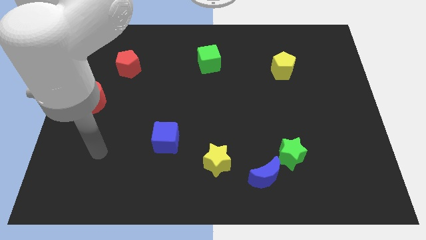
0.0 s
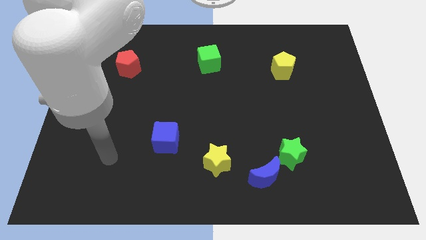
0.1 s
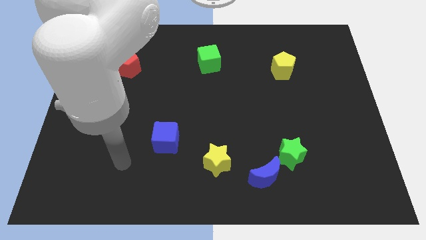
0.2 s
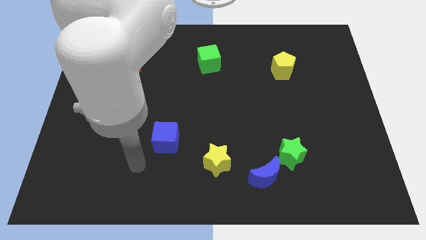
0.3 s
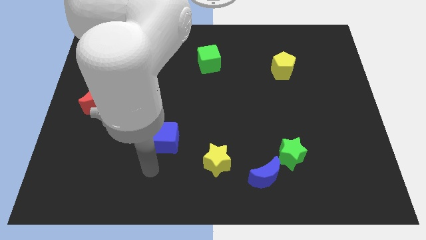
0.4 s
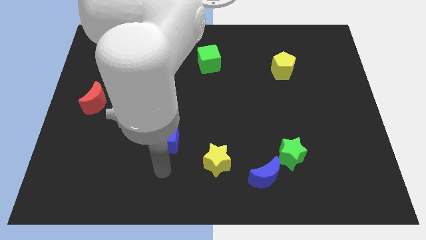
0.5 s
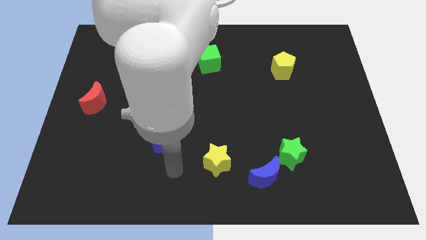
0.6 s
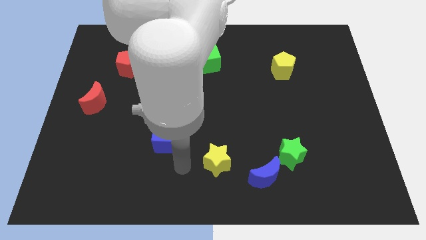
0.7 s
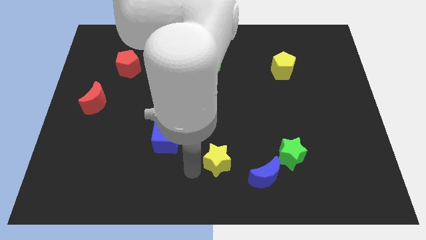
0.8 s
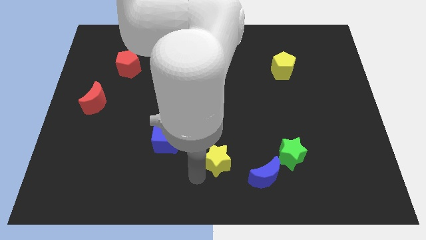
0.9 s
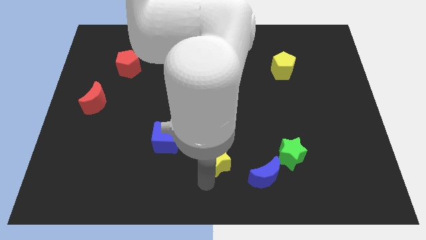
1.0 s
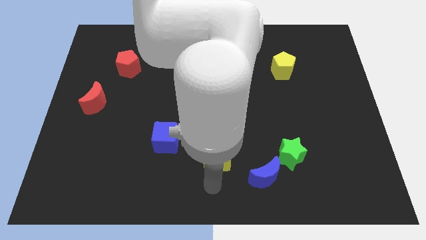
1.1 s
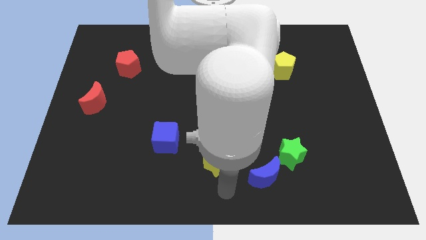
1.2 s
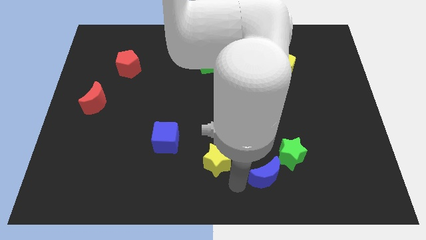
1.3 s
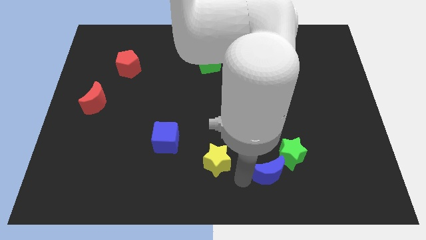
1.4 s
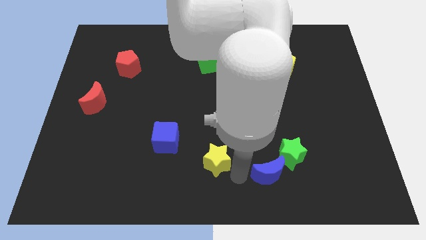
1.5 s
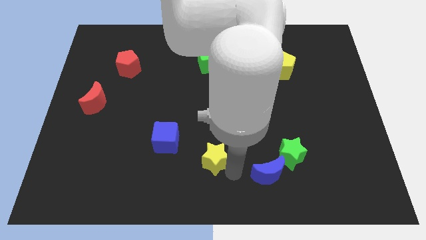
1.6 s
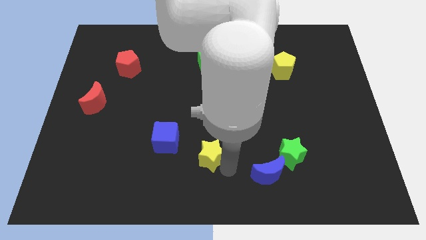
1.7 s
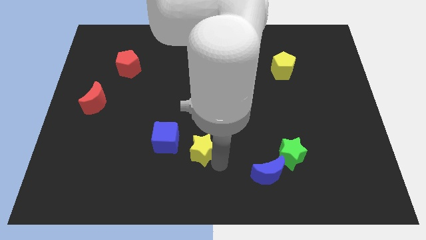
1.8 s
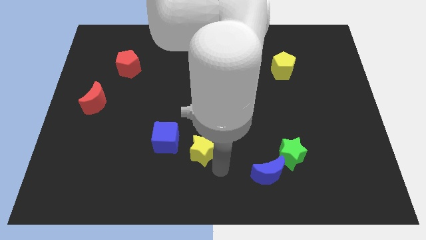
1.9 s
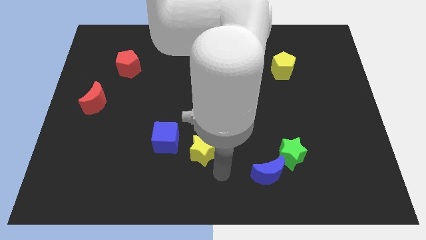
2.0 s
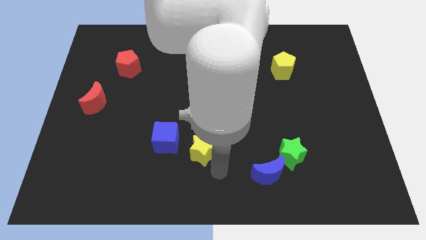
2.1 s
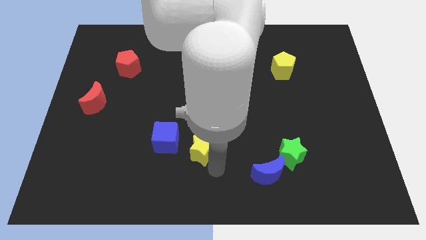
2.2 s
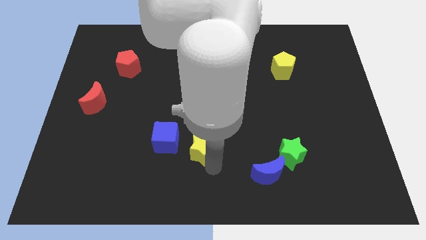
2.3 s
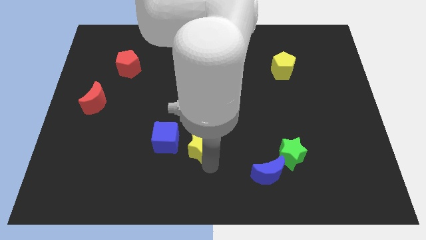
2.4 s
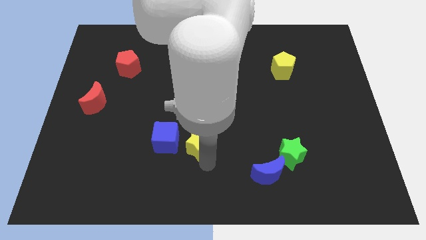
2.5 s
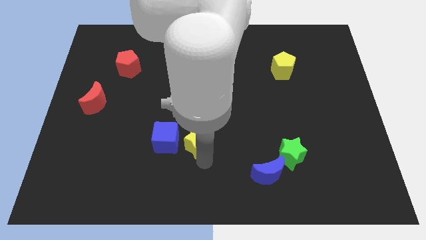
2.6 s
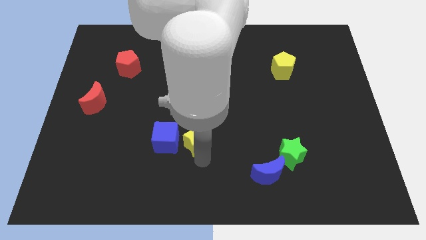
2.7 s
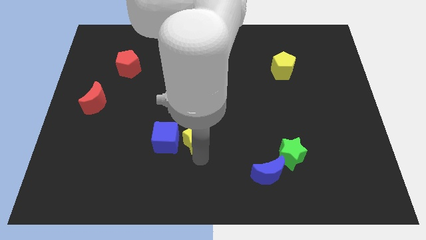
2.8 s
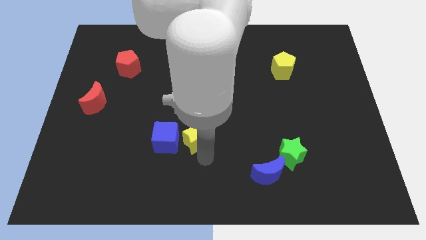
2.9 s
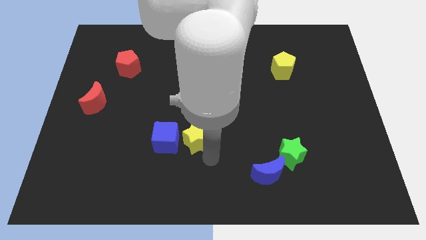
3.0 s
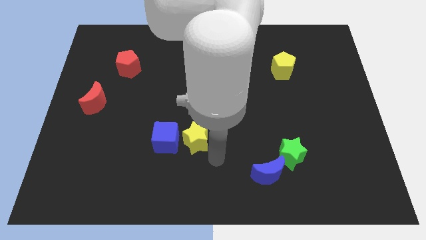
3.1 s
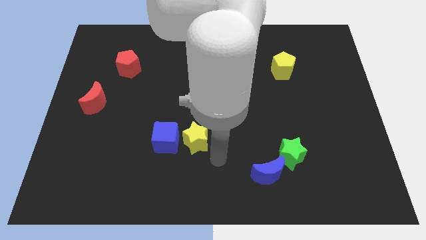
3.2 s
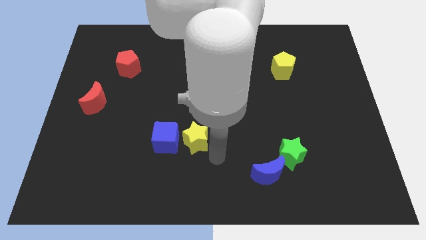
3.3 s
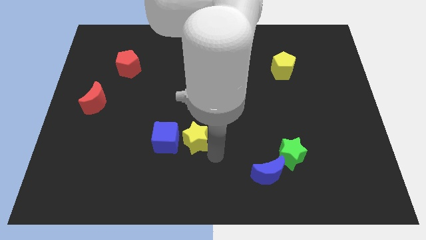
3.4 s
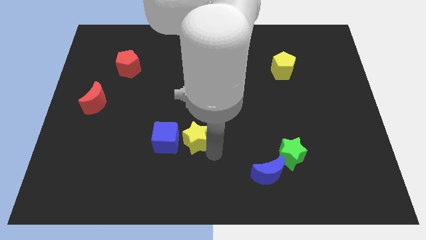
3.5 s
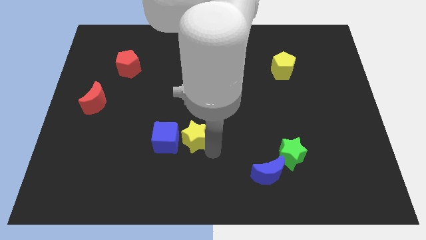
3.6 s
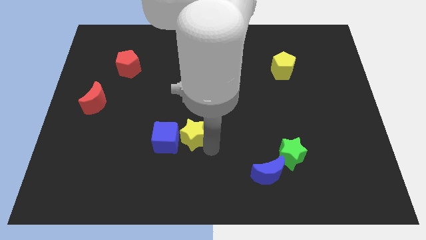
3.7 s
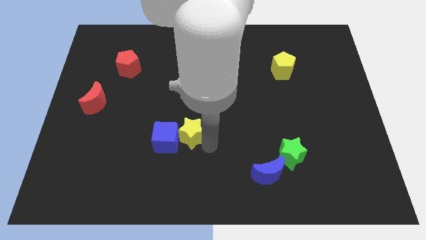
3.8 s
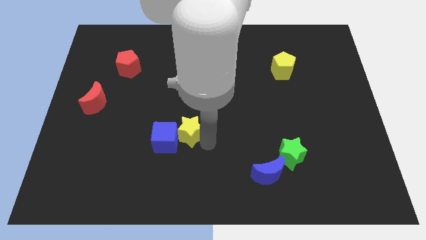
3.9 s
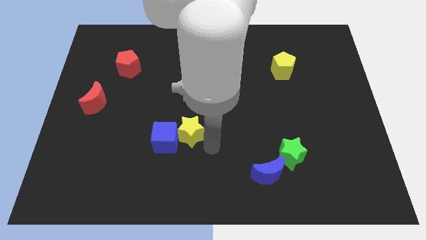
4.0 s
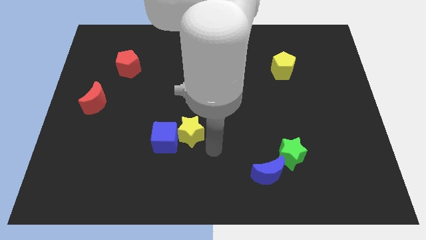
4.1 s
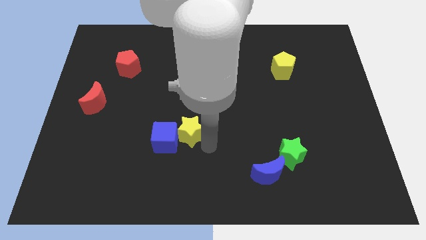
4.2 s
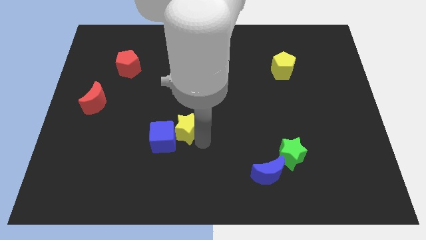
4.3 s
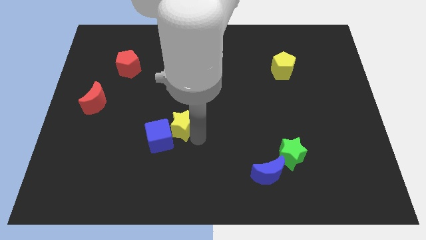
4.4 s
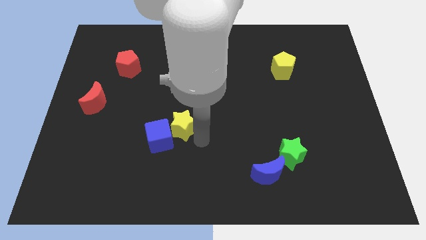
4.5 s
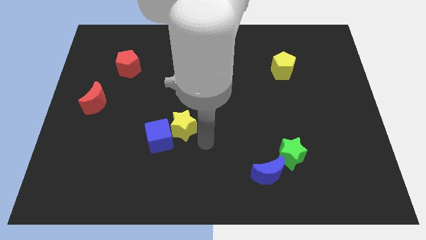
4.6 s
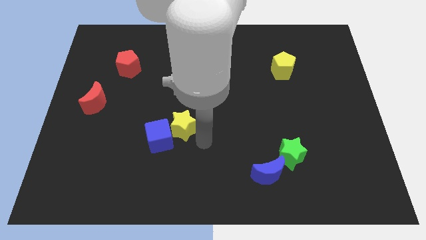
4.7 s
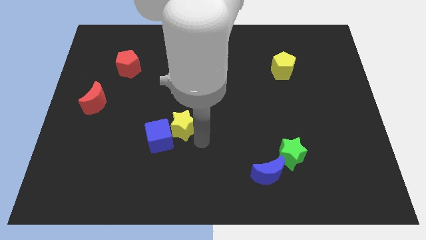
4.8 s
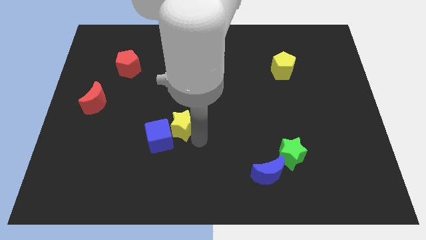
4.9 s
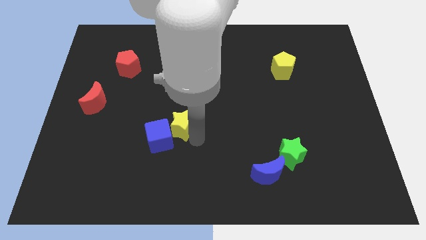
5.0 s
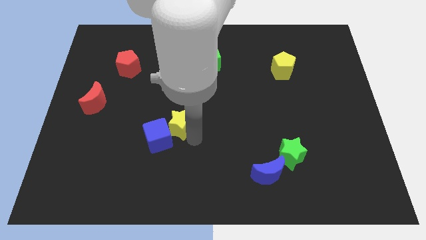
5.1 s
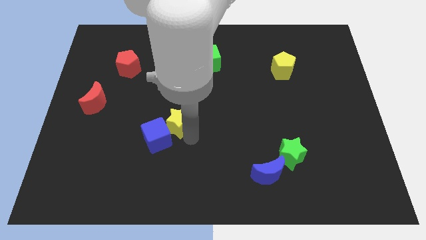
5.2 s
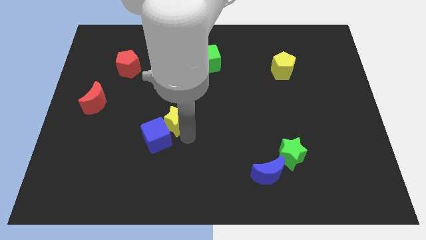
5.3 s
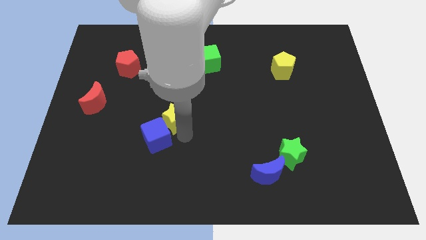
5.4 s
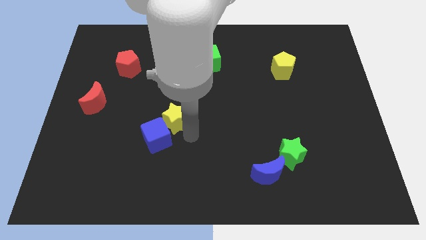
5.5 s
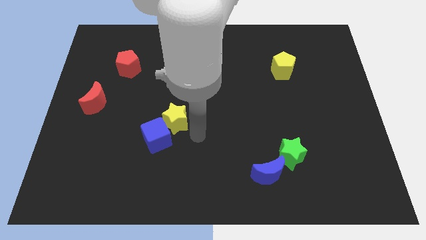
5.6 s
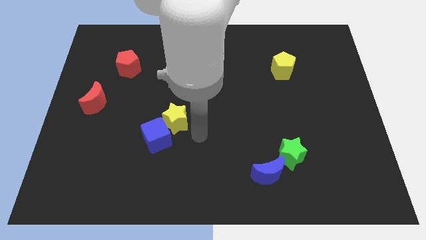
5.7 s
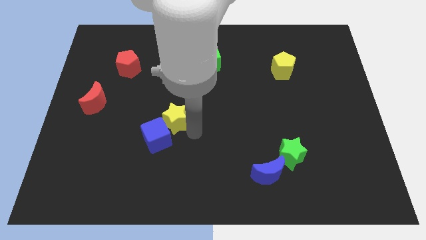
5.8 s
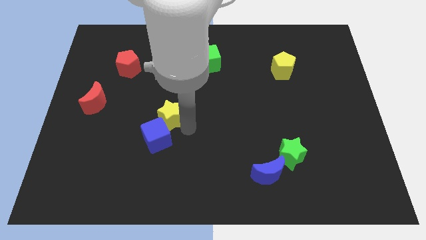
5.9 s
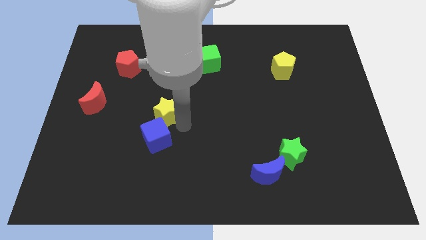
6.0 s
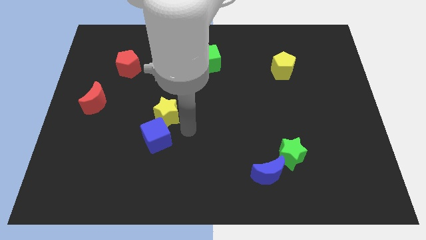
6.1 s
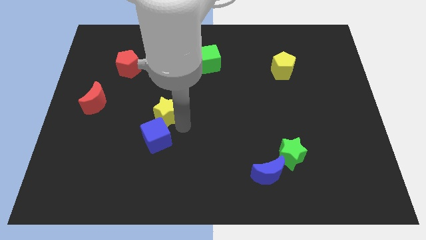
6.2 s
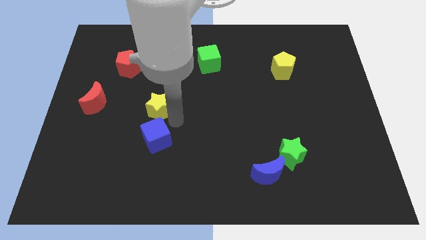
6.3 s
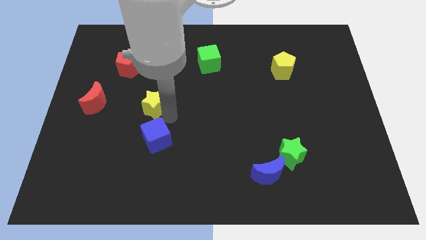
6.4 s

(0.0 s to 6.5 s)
move the yellow star up and to the left

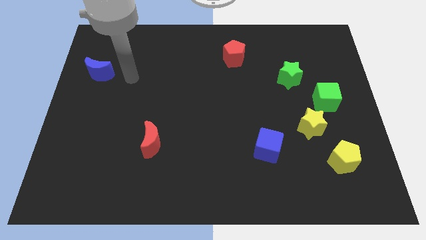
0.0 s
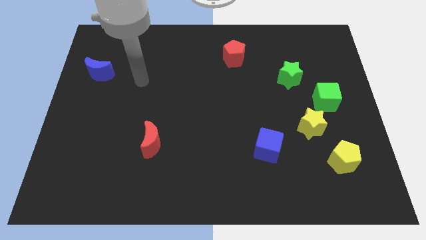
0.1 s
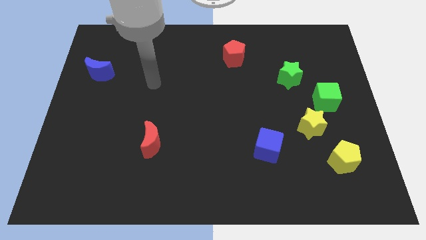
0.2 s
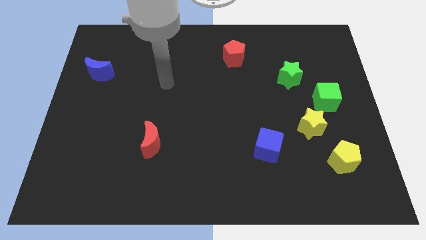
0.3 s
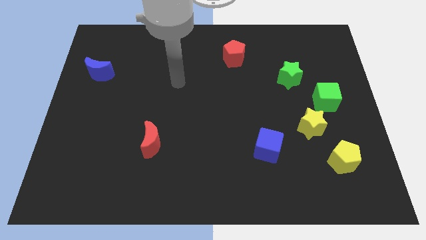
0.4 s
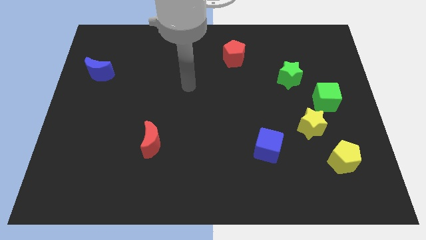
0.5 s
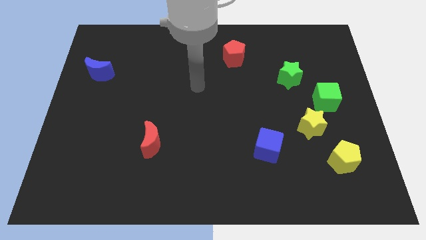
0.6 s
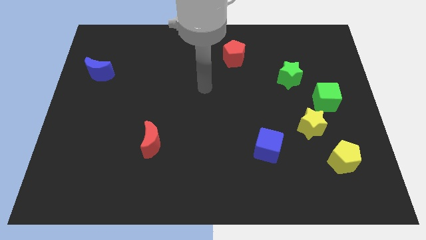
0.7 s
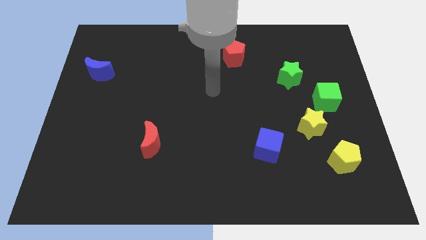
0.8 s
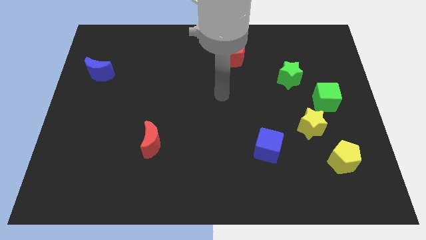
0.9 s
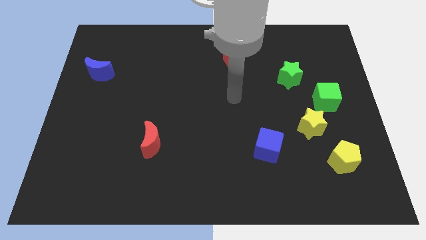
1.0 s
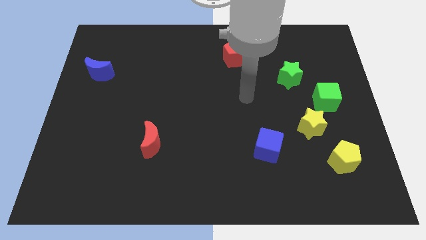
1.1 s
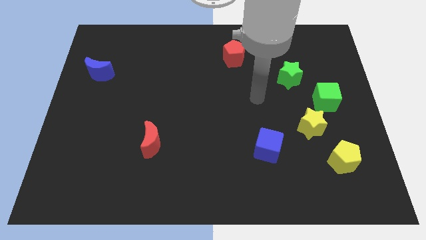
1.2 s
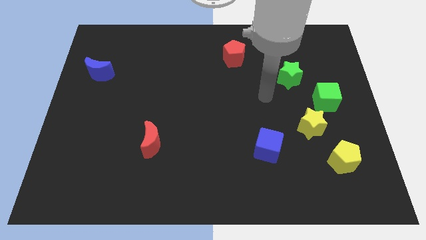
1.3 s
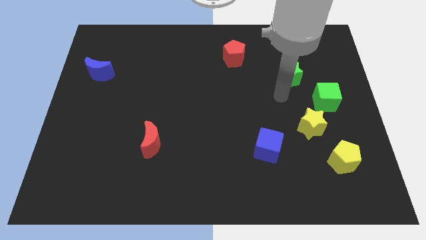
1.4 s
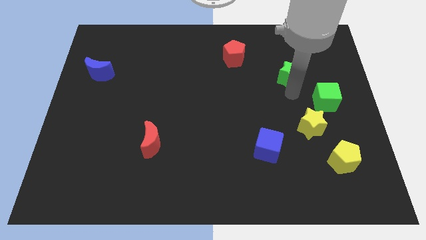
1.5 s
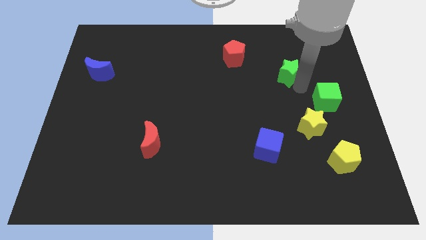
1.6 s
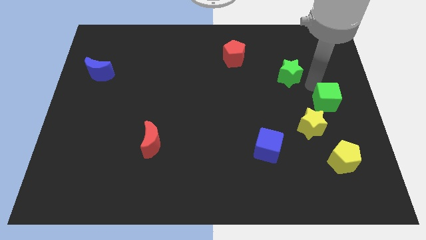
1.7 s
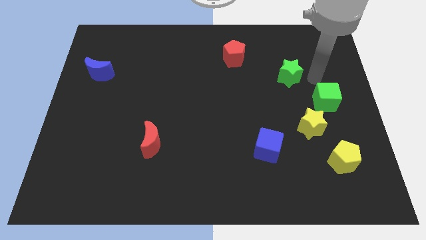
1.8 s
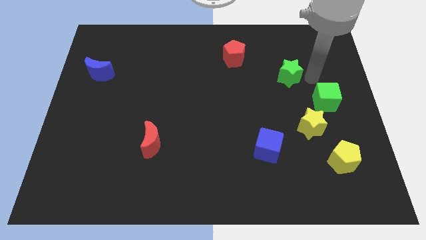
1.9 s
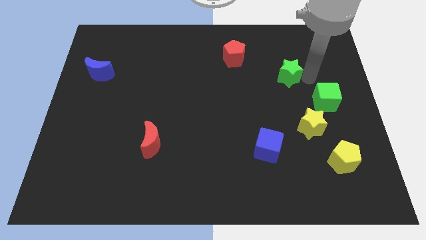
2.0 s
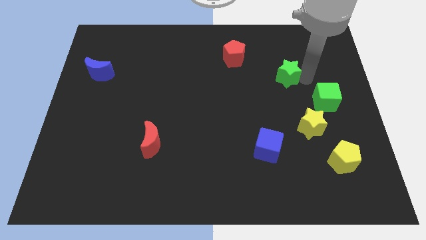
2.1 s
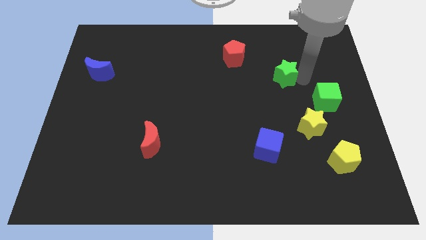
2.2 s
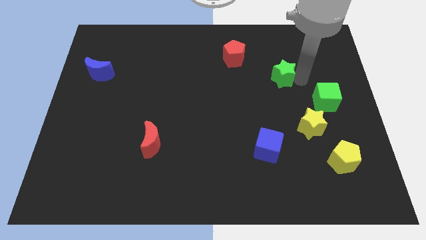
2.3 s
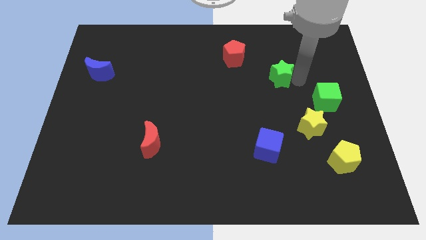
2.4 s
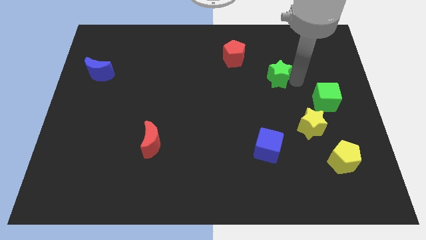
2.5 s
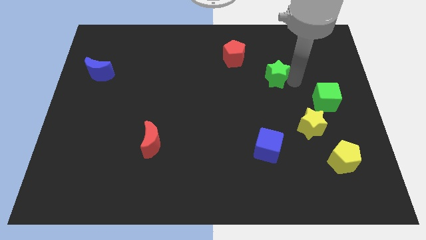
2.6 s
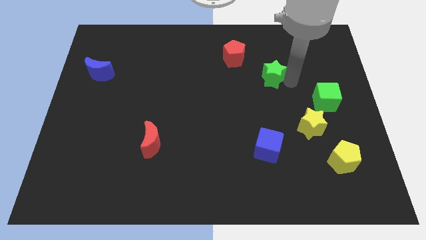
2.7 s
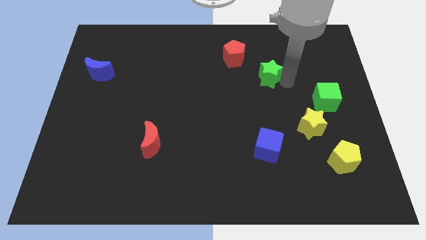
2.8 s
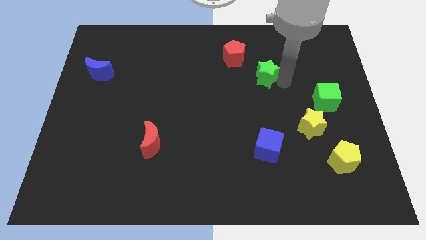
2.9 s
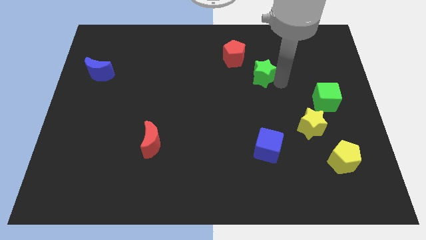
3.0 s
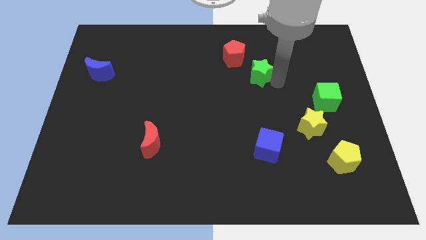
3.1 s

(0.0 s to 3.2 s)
slide the green star left somewhat
